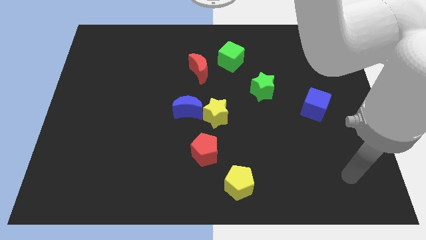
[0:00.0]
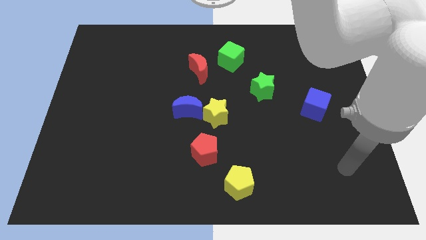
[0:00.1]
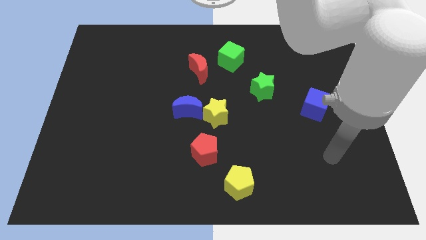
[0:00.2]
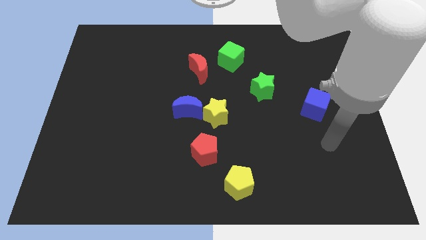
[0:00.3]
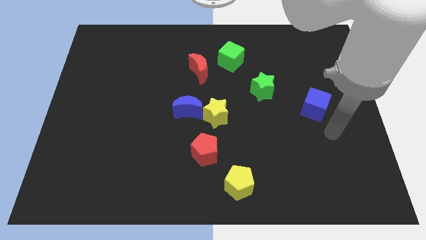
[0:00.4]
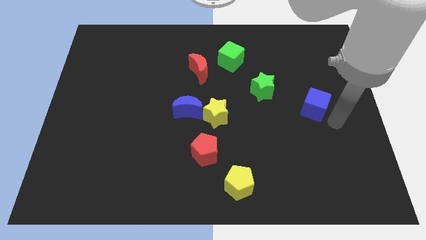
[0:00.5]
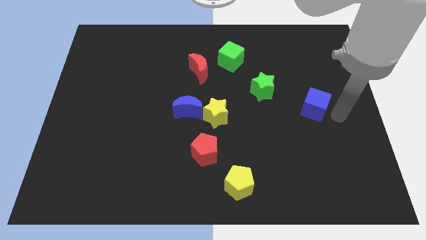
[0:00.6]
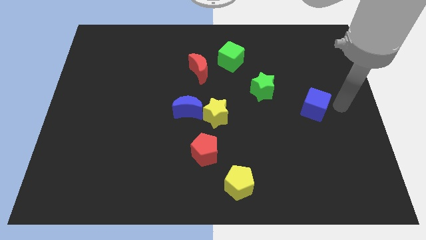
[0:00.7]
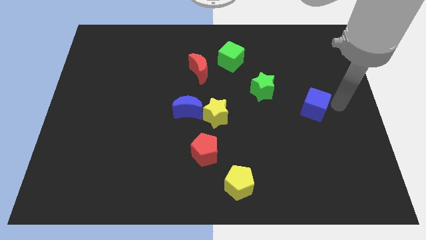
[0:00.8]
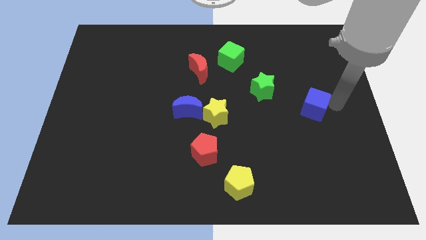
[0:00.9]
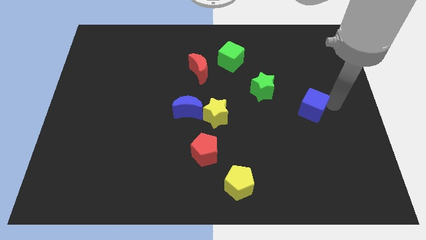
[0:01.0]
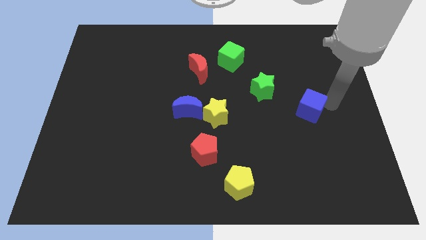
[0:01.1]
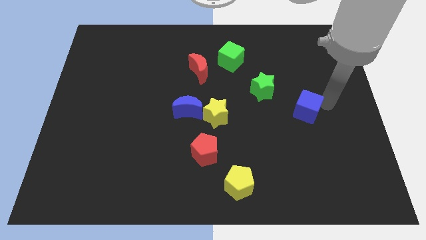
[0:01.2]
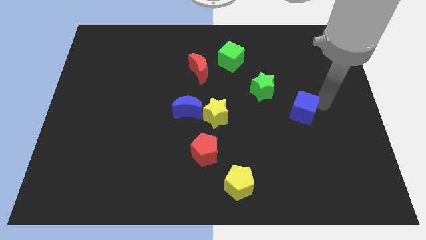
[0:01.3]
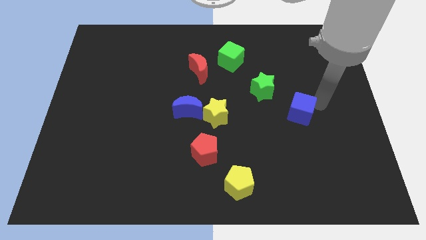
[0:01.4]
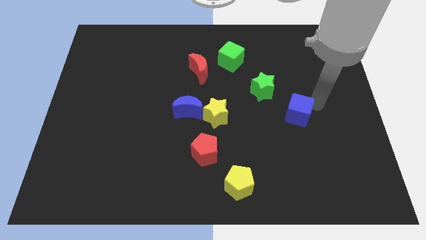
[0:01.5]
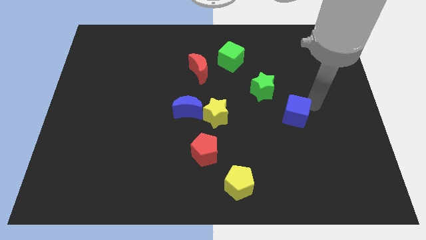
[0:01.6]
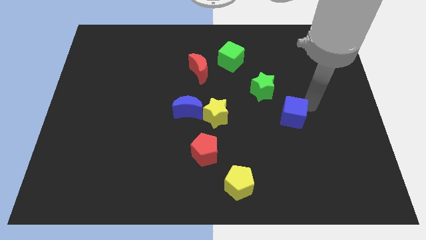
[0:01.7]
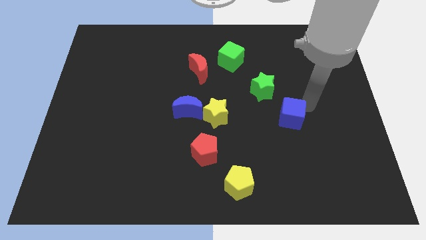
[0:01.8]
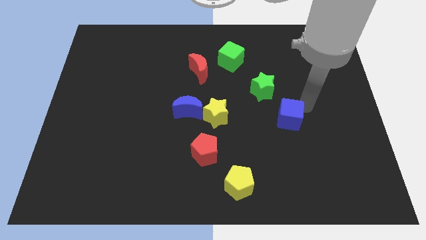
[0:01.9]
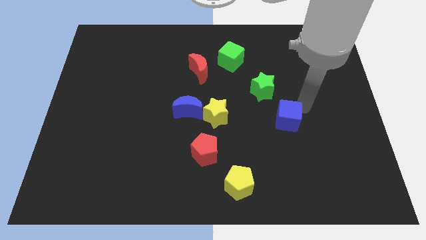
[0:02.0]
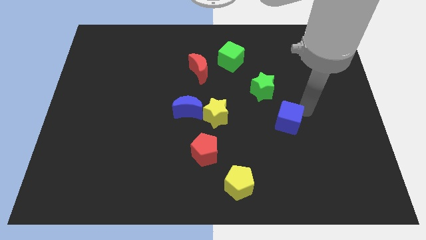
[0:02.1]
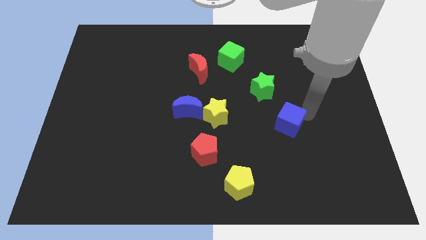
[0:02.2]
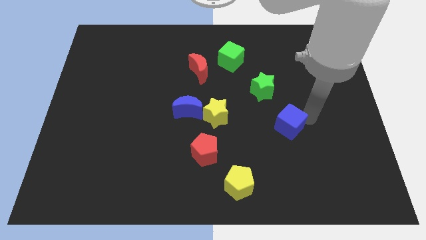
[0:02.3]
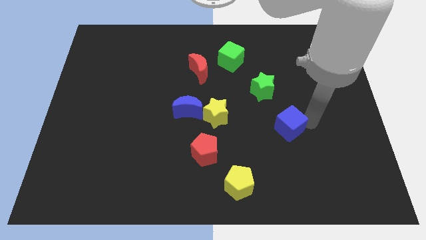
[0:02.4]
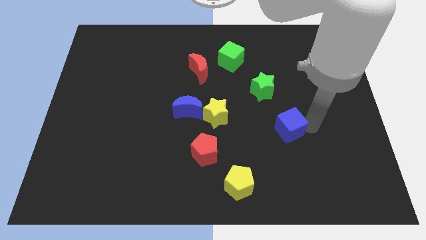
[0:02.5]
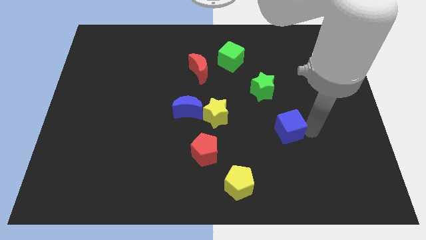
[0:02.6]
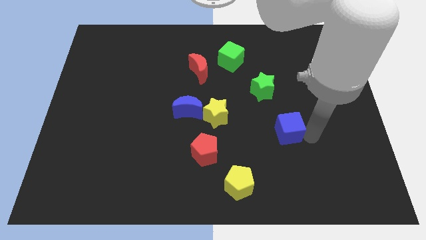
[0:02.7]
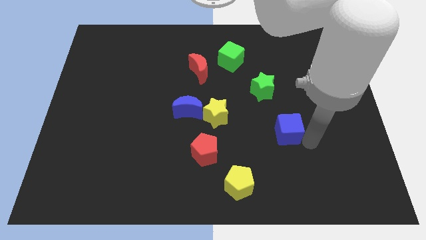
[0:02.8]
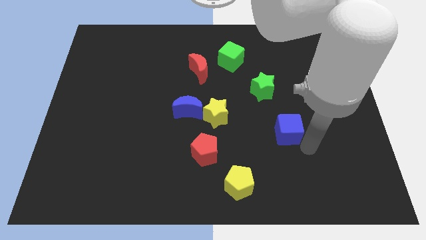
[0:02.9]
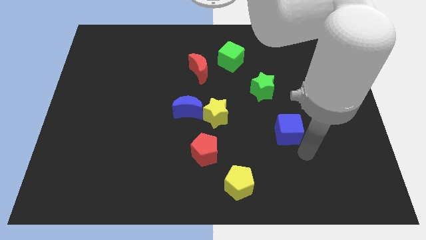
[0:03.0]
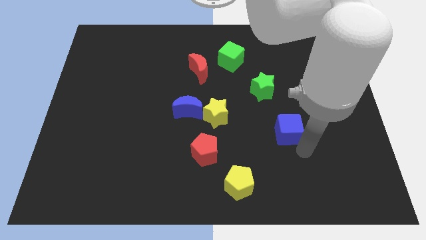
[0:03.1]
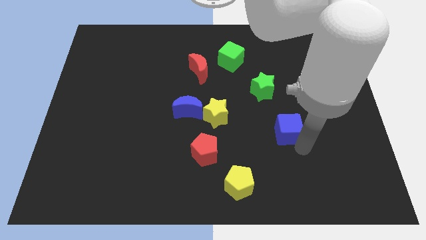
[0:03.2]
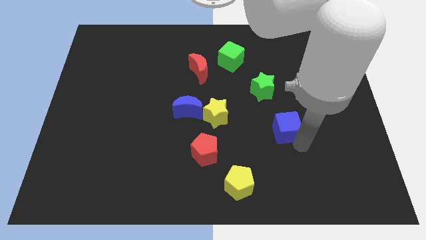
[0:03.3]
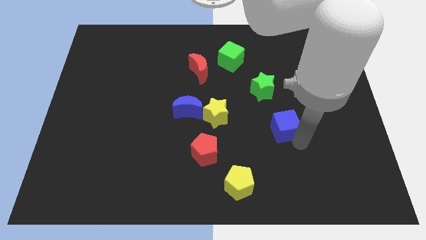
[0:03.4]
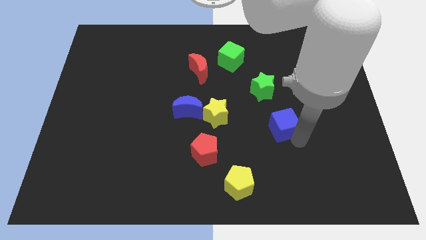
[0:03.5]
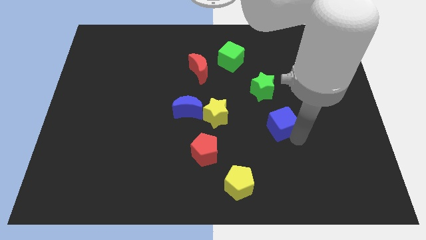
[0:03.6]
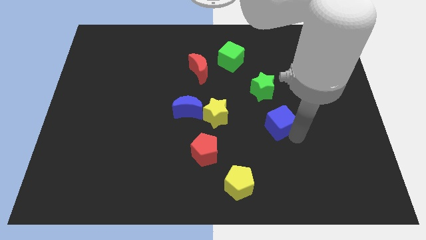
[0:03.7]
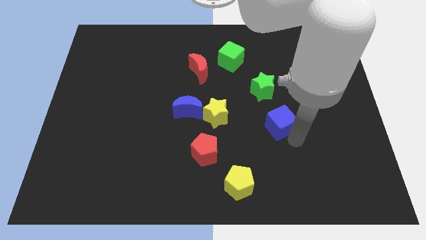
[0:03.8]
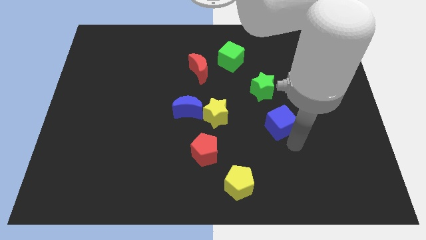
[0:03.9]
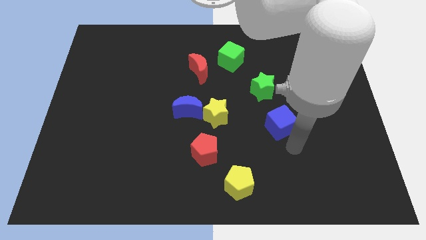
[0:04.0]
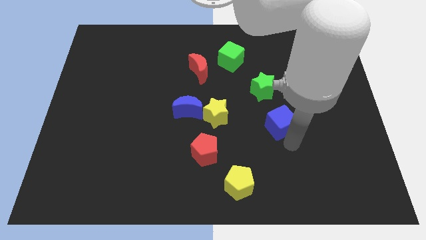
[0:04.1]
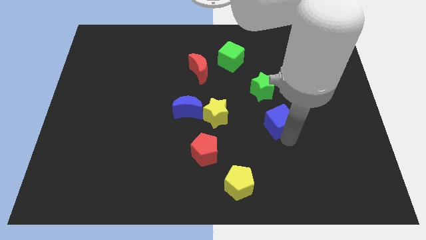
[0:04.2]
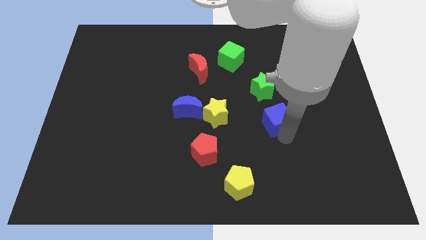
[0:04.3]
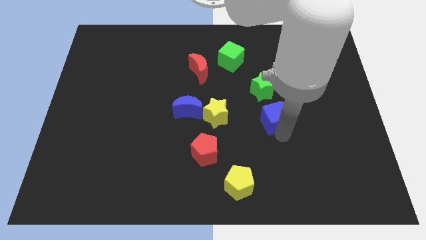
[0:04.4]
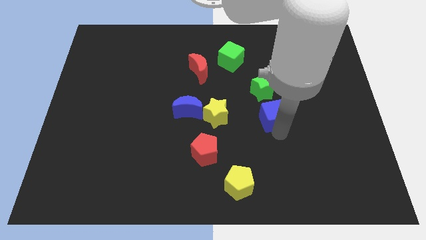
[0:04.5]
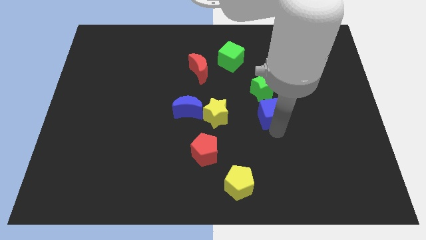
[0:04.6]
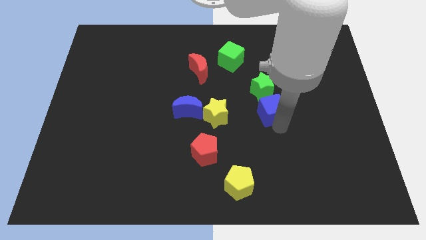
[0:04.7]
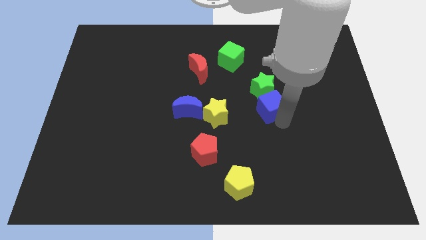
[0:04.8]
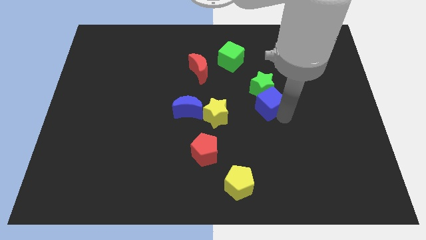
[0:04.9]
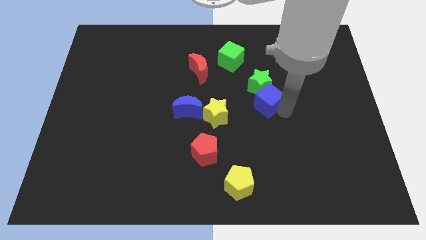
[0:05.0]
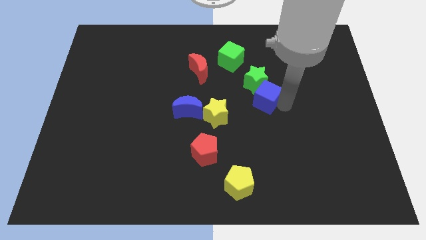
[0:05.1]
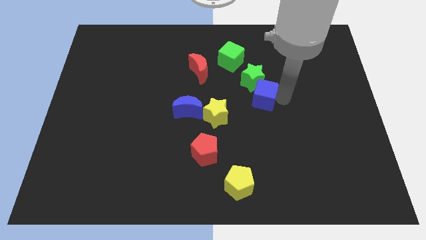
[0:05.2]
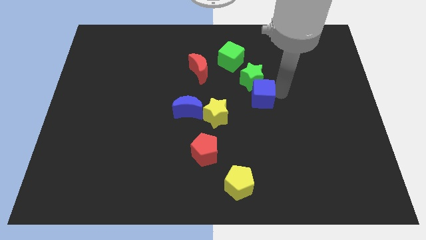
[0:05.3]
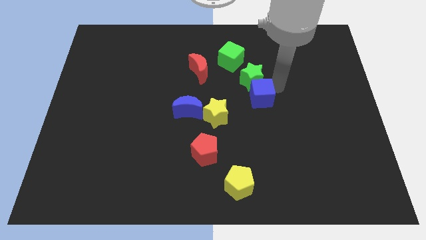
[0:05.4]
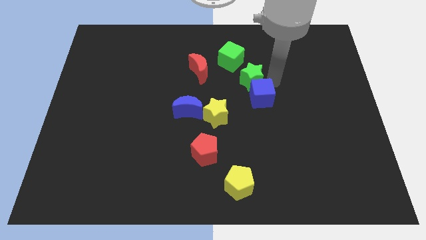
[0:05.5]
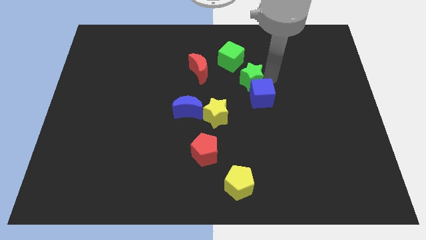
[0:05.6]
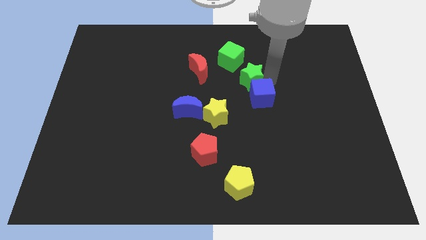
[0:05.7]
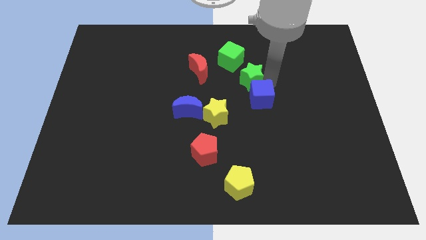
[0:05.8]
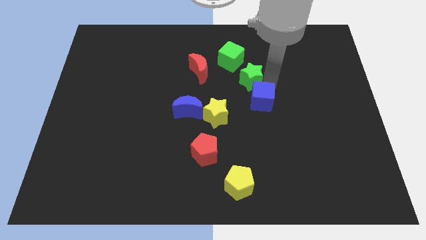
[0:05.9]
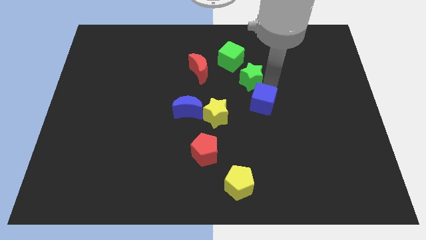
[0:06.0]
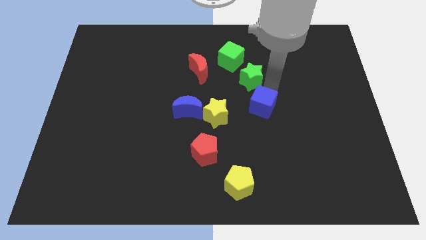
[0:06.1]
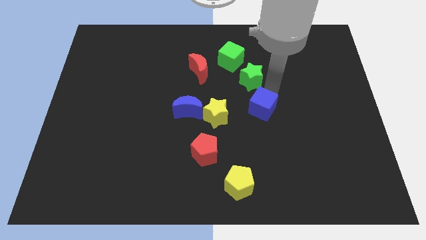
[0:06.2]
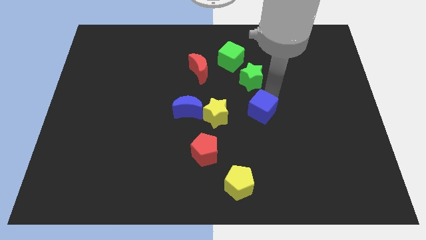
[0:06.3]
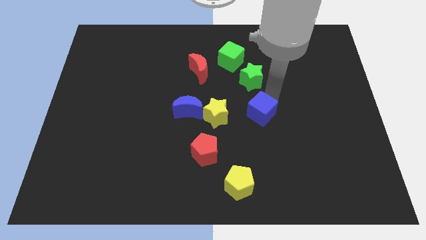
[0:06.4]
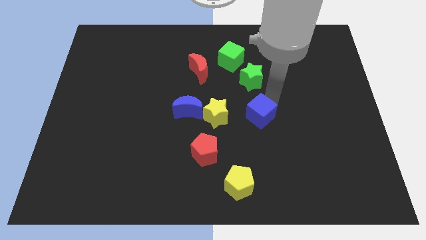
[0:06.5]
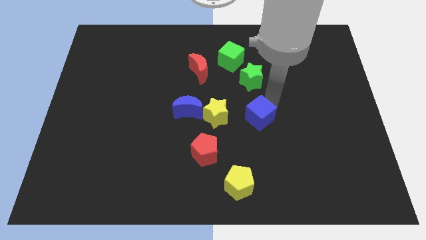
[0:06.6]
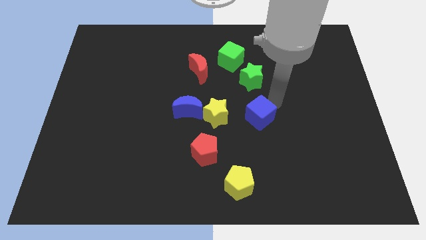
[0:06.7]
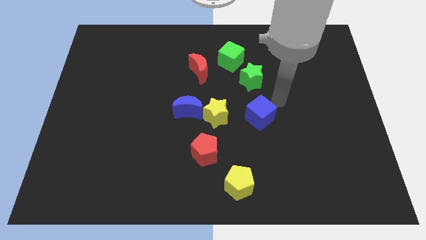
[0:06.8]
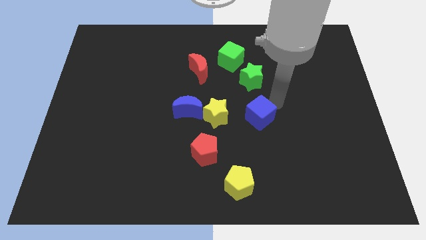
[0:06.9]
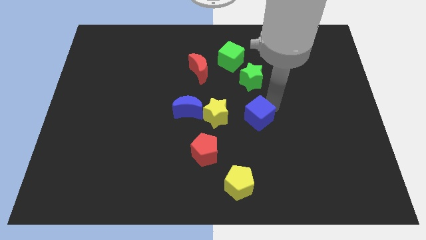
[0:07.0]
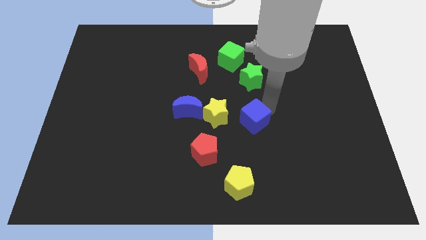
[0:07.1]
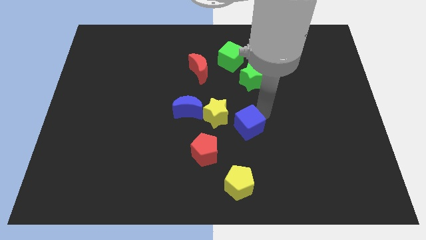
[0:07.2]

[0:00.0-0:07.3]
push the blue cube diagonally up and to the right of the red pentagon
